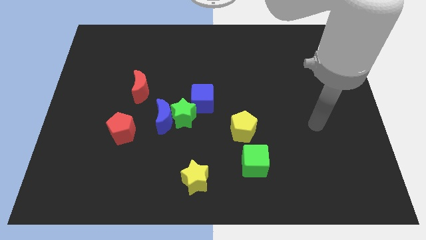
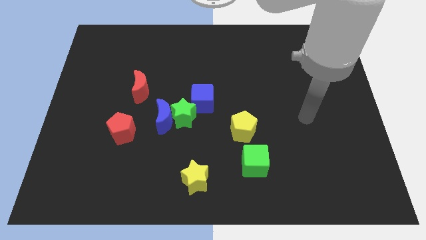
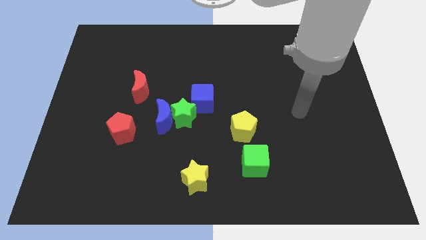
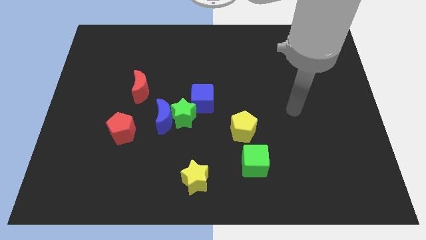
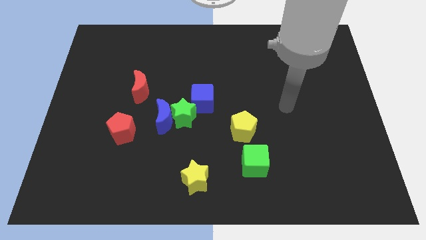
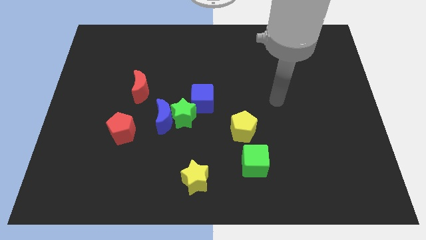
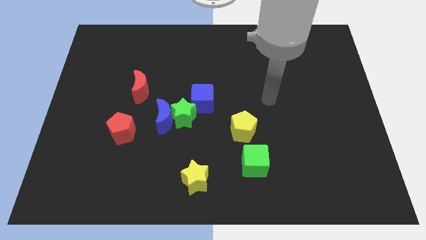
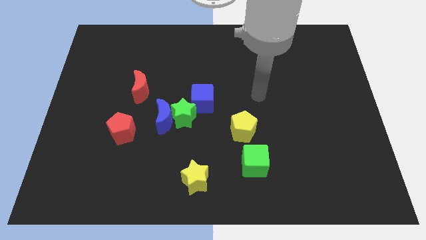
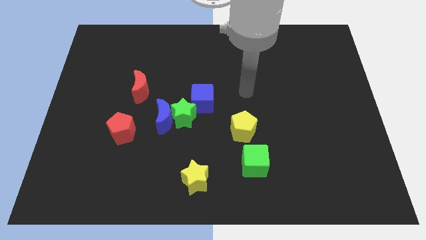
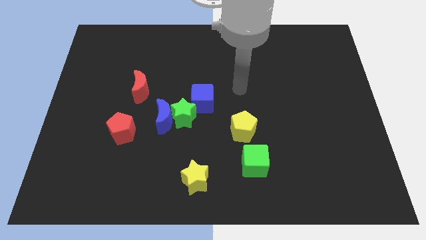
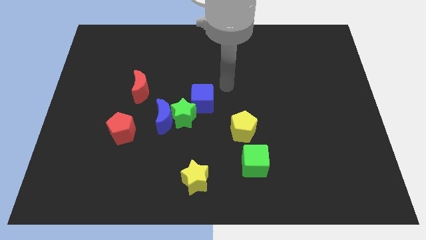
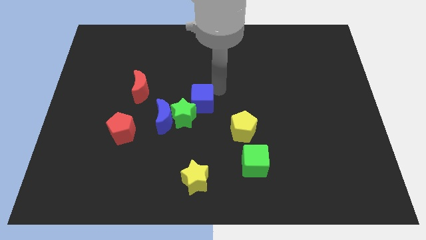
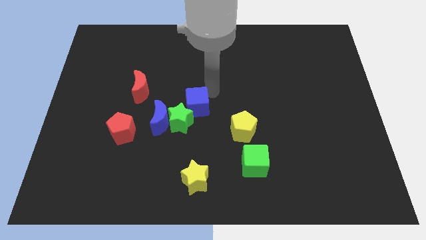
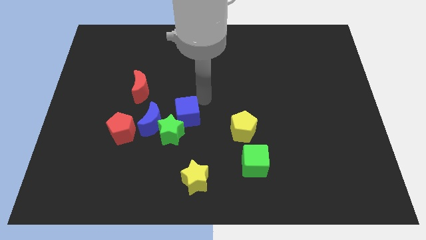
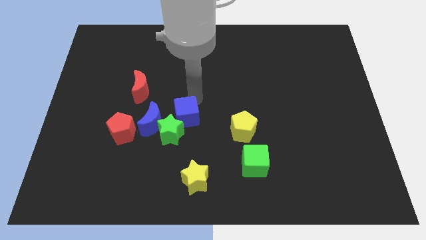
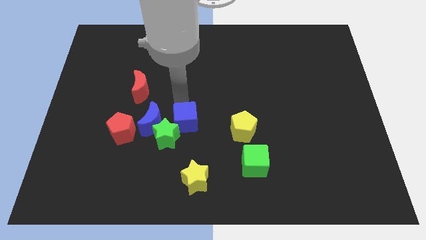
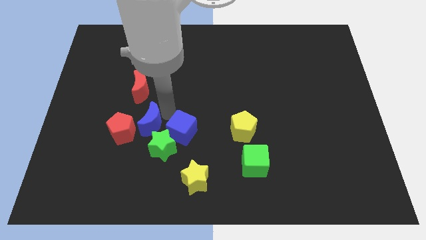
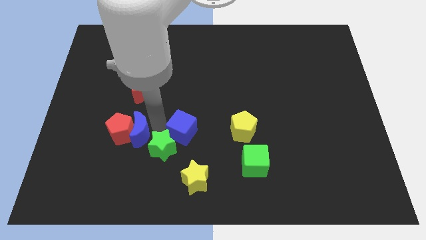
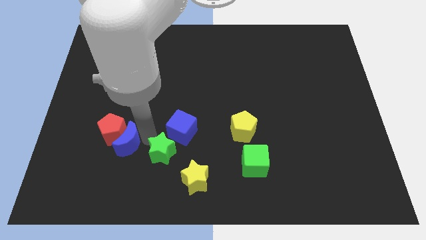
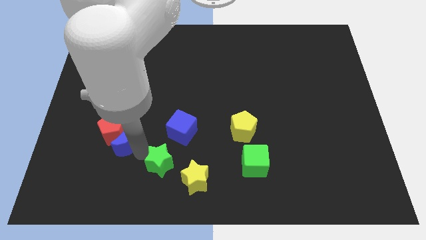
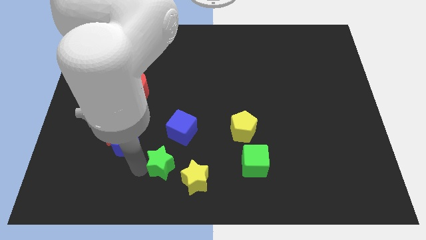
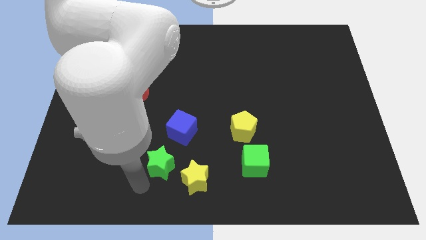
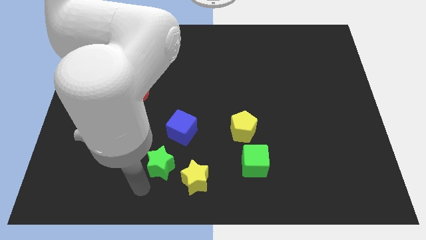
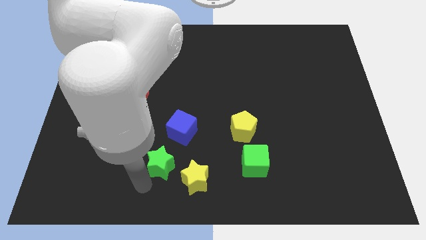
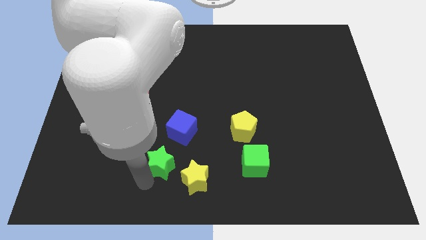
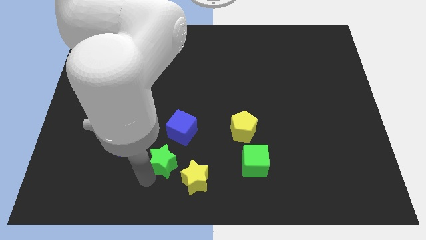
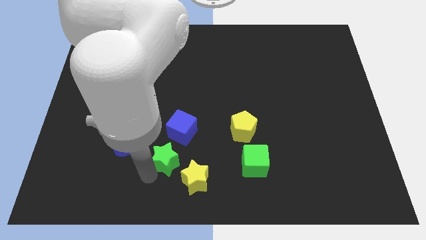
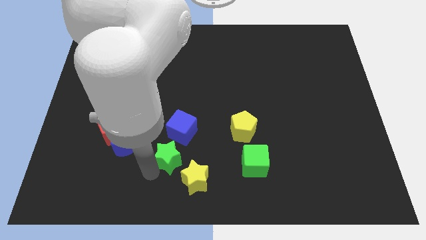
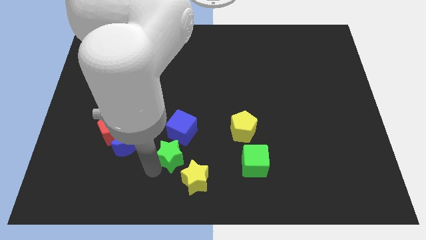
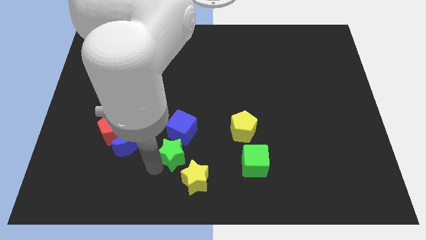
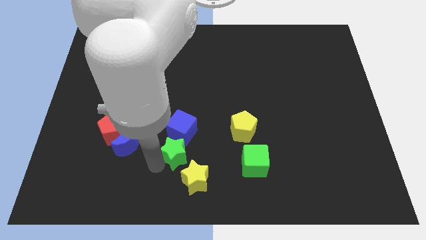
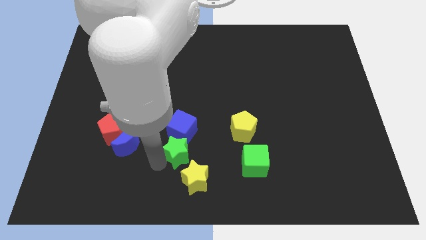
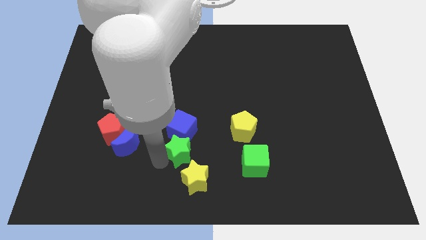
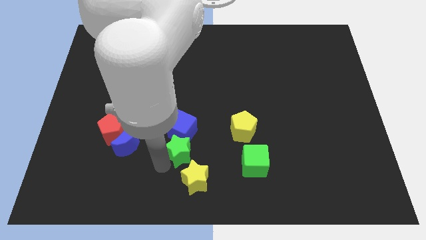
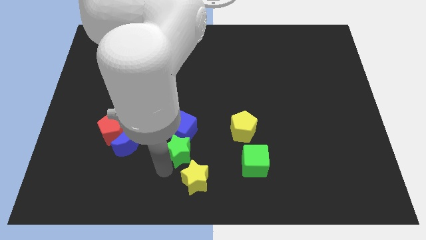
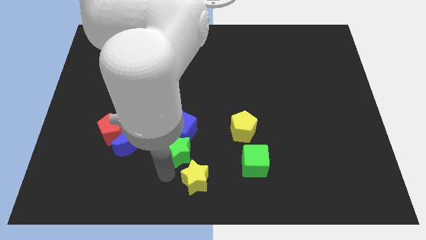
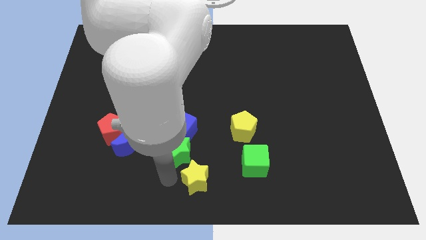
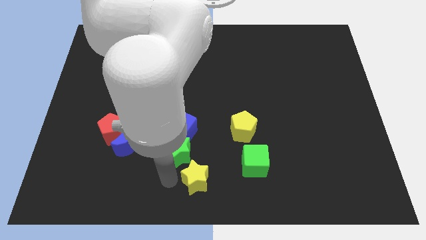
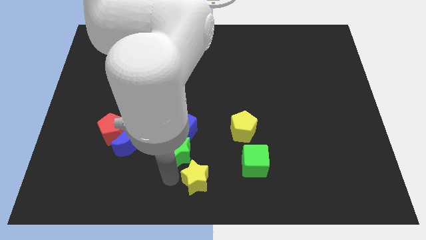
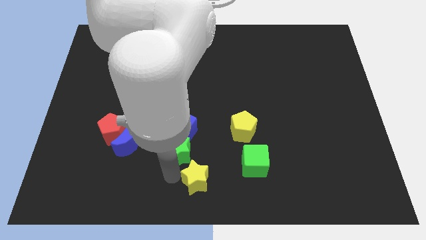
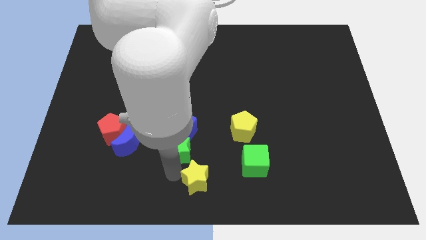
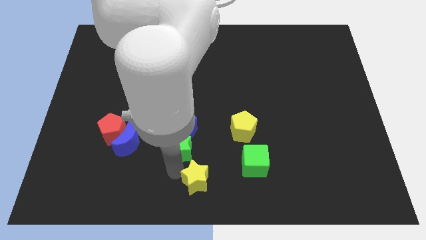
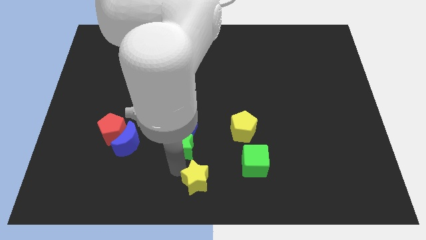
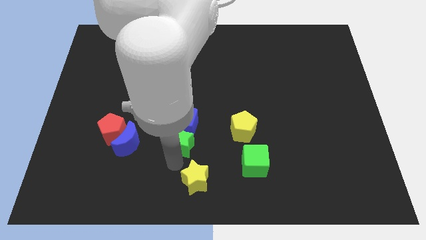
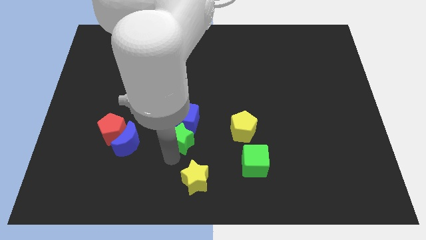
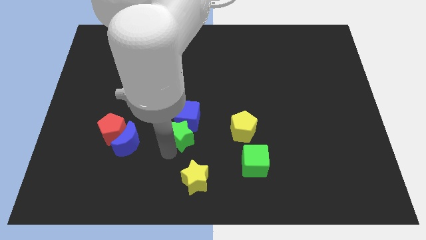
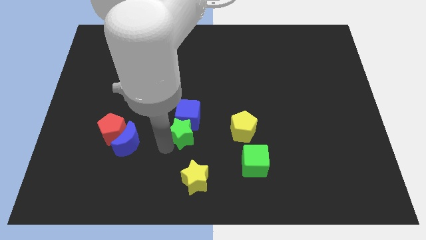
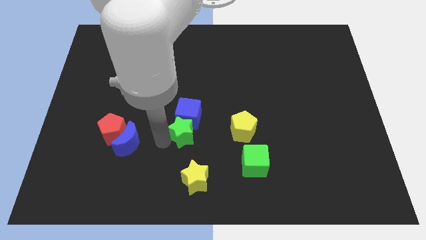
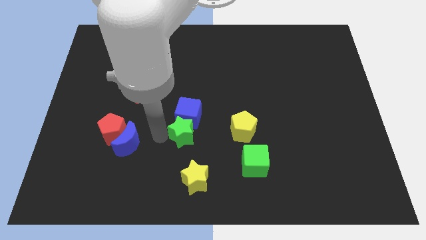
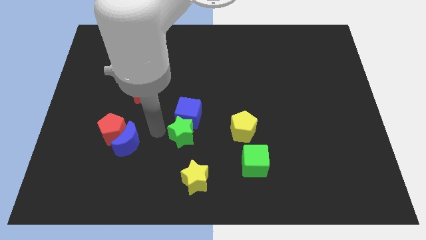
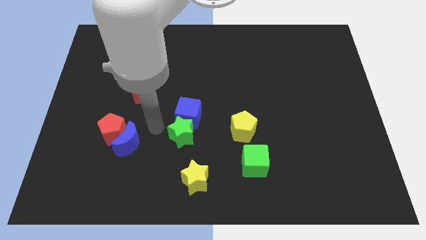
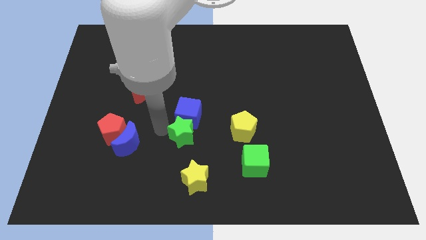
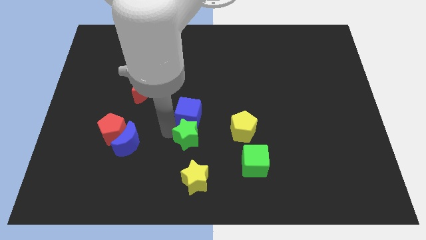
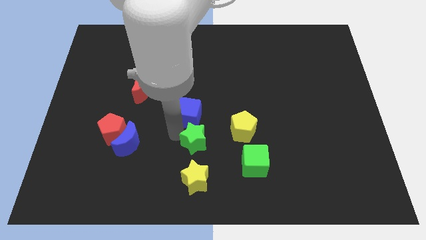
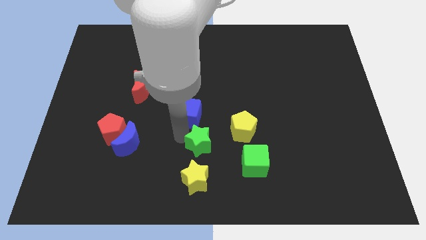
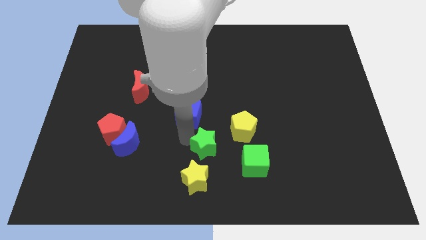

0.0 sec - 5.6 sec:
pull the green star apart from the blue moon and blue cube

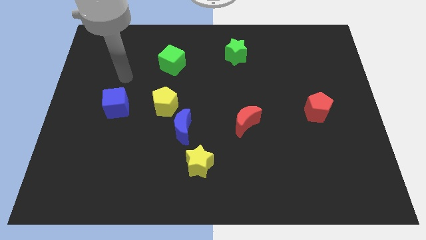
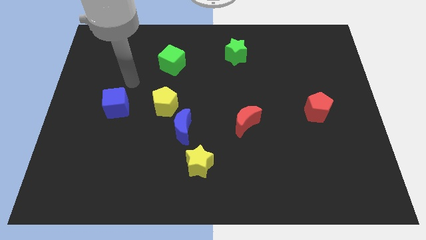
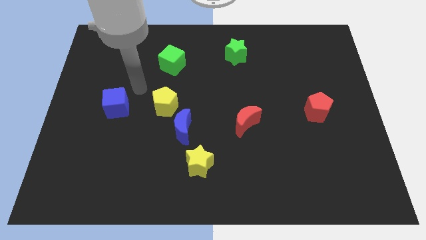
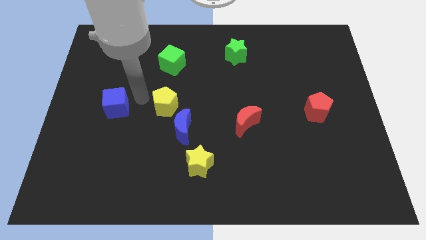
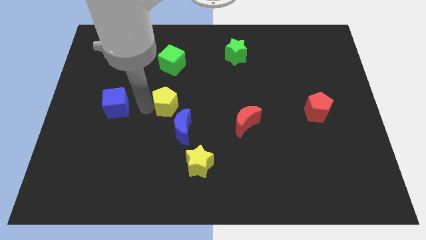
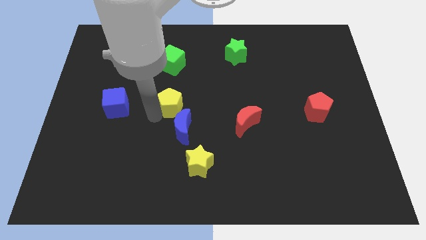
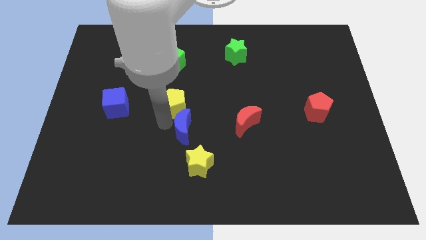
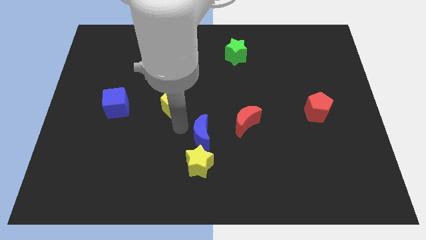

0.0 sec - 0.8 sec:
separate the yellow pentagon from the blue moon

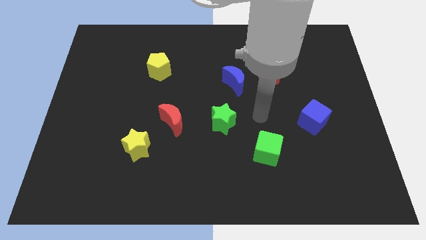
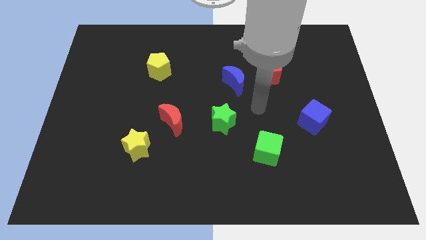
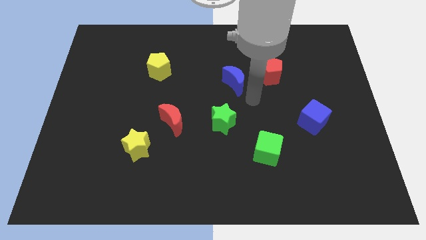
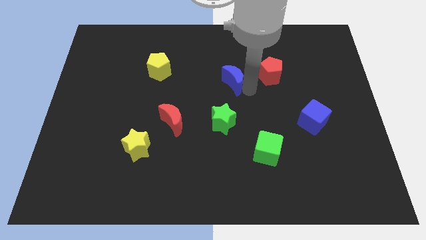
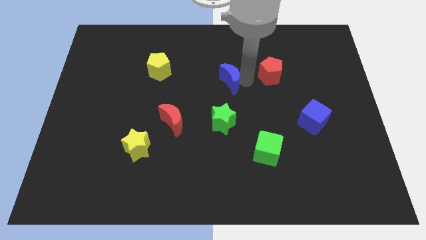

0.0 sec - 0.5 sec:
move the red pentagon away from the blue moon

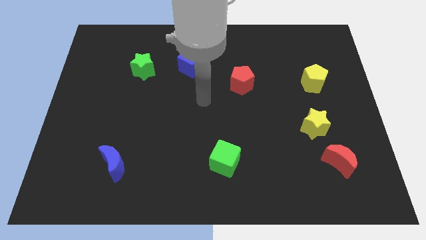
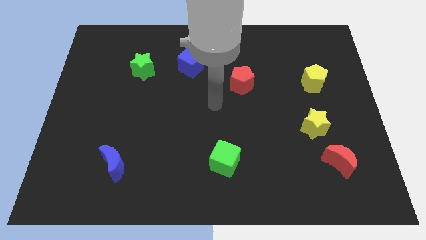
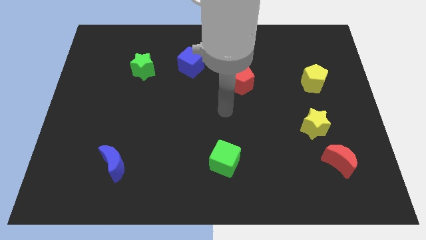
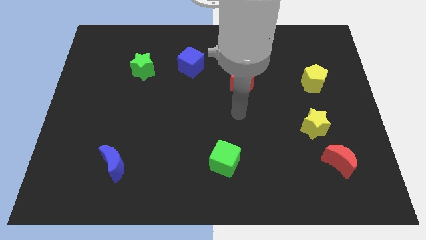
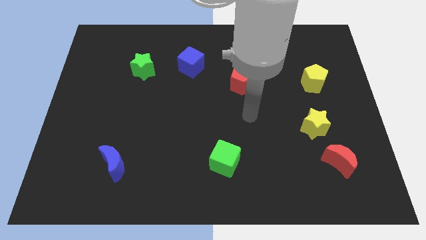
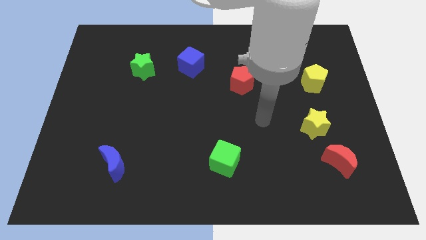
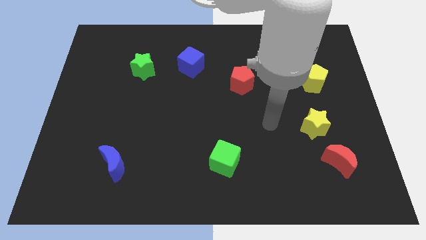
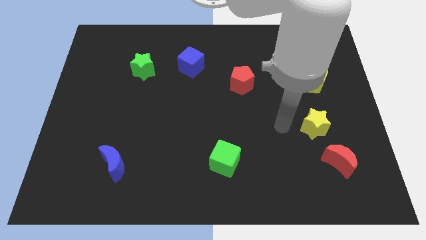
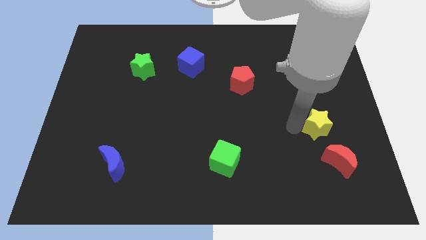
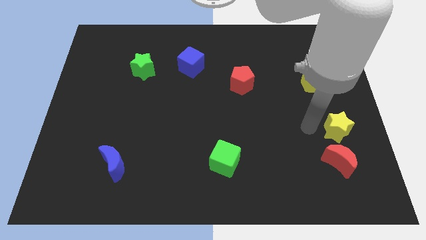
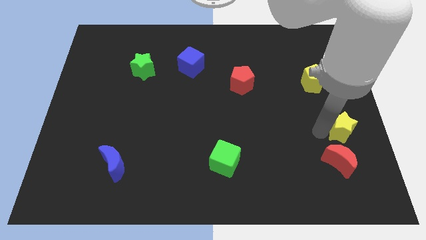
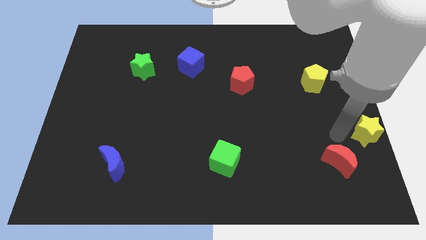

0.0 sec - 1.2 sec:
pull the red moon apart from the yellow star

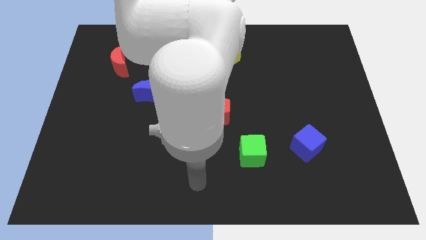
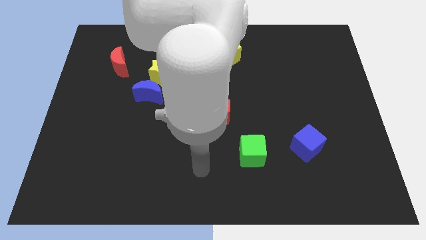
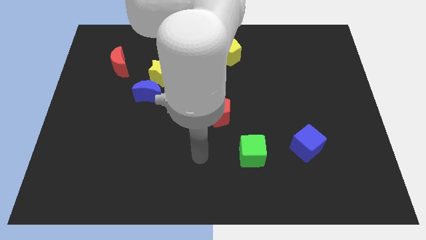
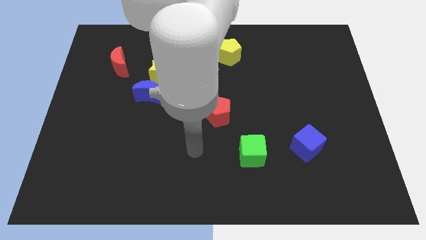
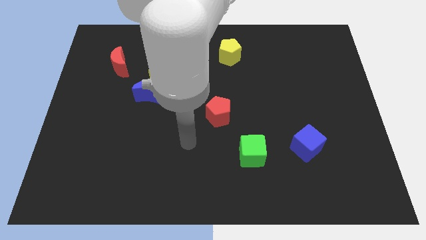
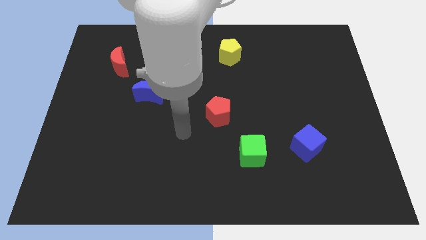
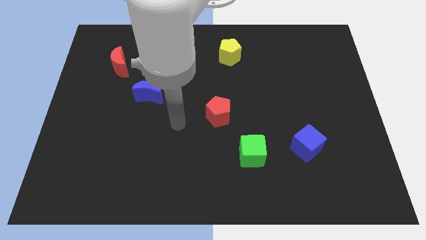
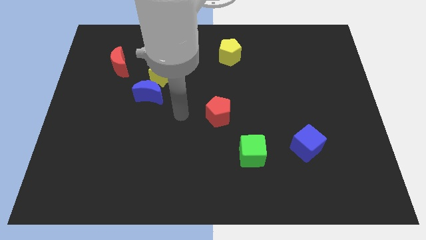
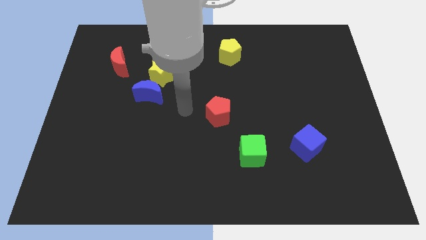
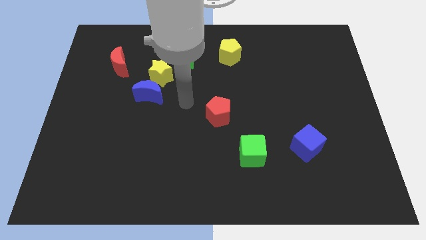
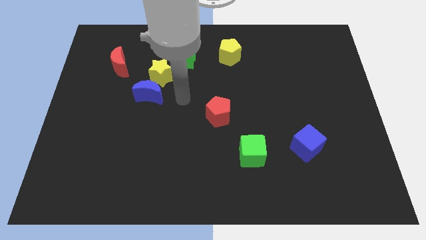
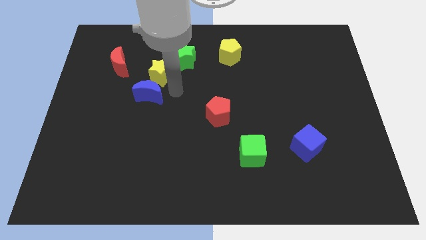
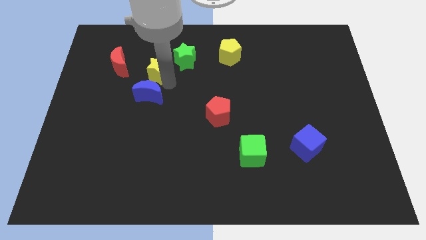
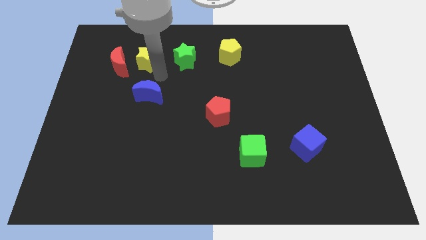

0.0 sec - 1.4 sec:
move the blue moon away from the yellow star

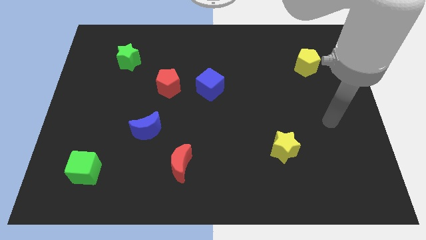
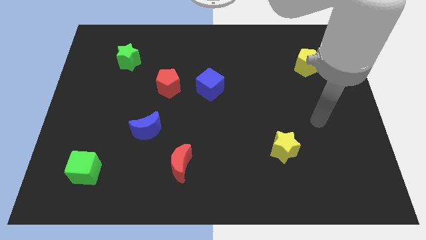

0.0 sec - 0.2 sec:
move the red pentagon away from the blue cube
